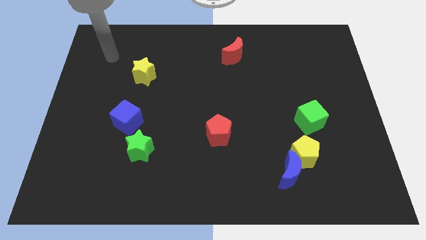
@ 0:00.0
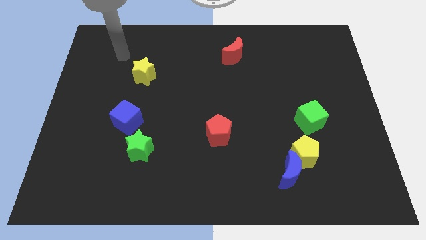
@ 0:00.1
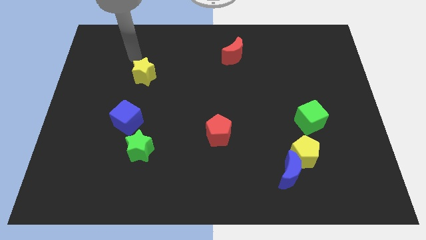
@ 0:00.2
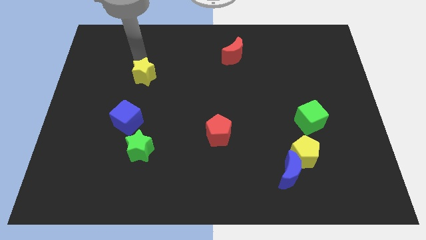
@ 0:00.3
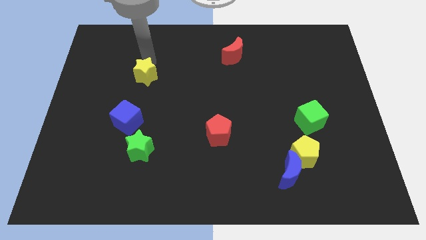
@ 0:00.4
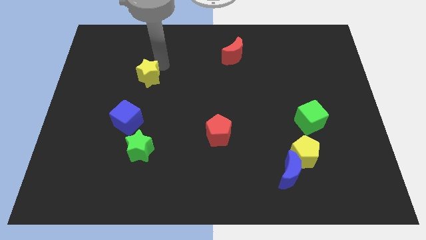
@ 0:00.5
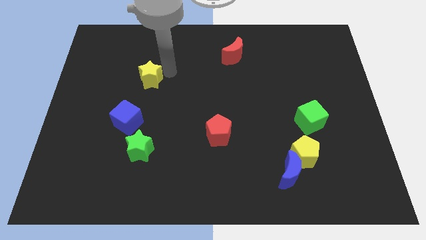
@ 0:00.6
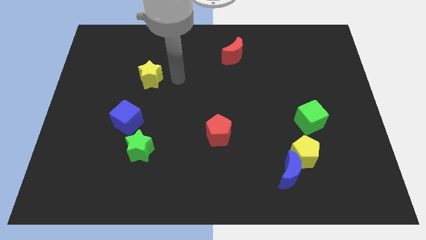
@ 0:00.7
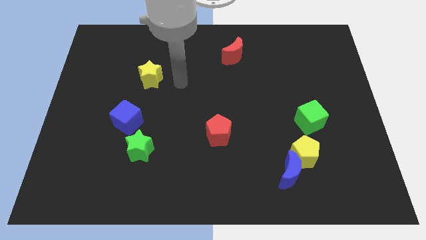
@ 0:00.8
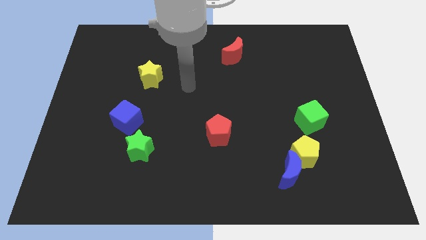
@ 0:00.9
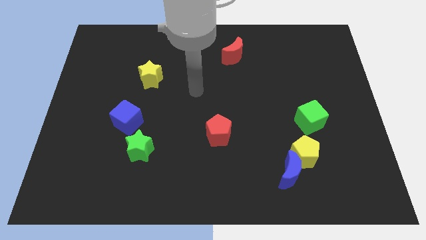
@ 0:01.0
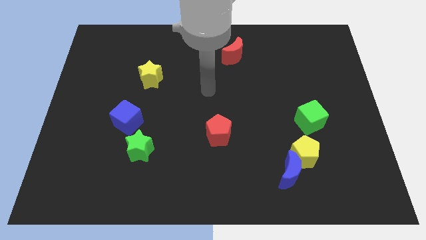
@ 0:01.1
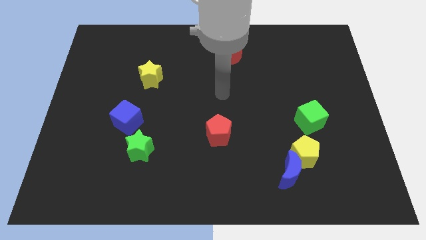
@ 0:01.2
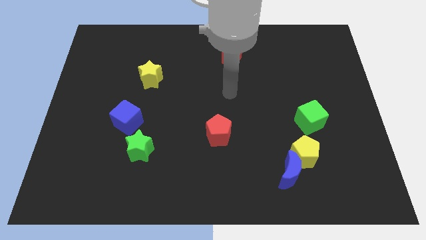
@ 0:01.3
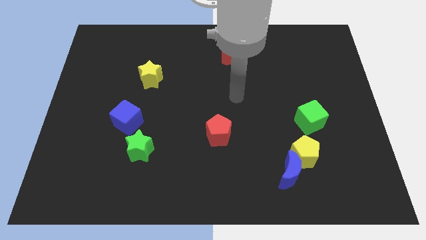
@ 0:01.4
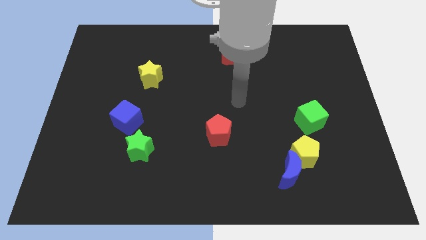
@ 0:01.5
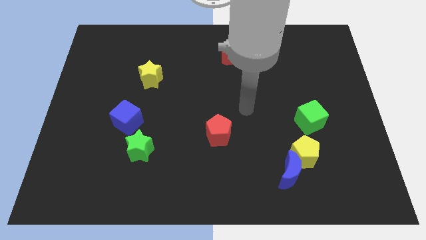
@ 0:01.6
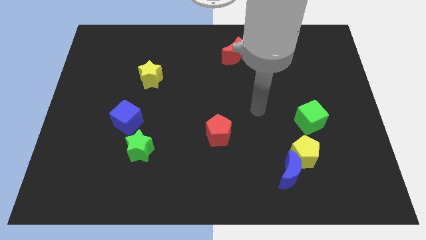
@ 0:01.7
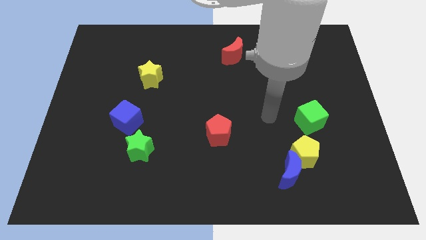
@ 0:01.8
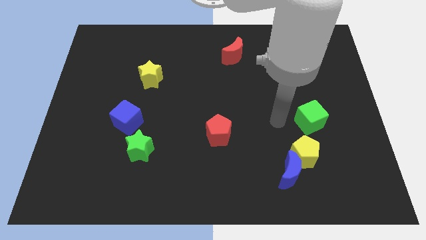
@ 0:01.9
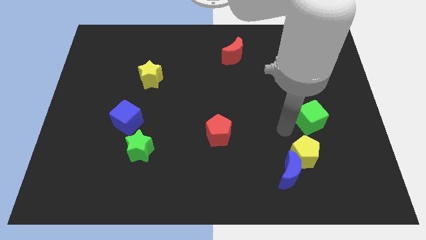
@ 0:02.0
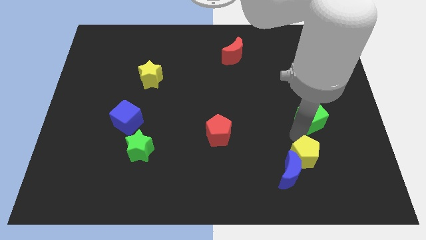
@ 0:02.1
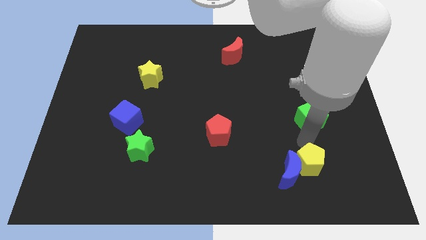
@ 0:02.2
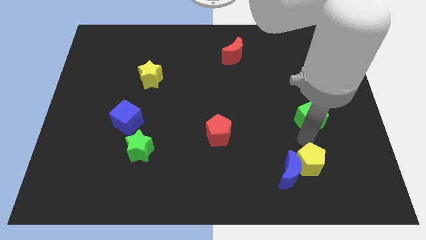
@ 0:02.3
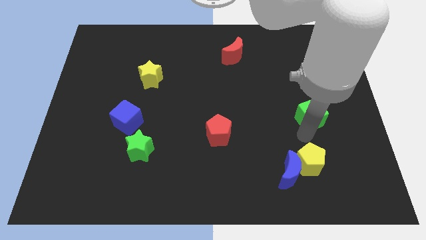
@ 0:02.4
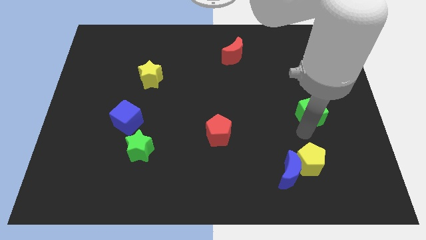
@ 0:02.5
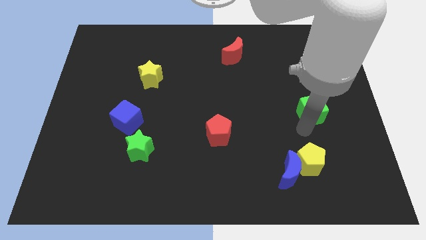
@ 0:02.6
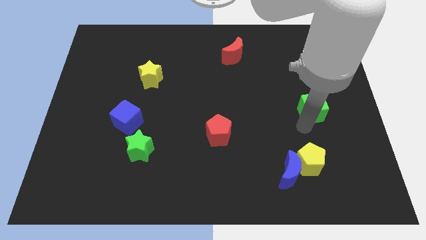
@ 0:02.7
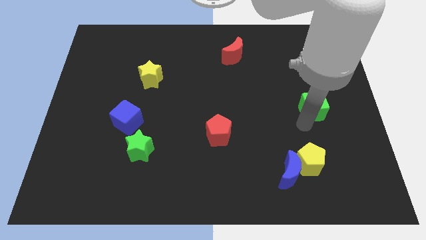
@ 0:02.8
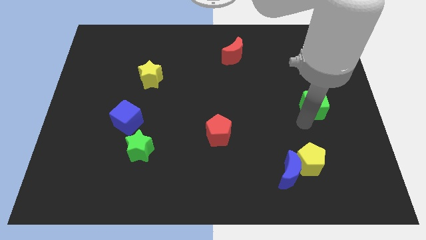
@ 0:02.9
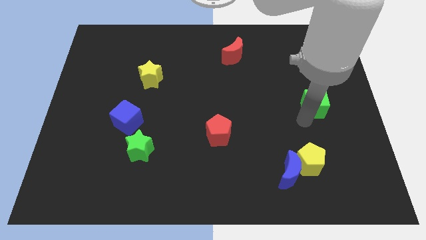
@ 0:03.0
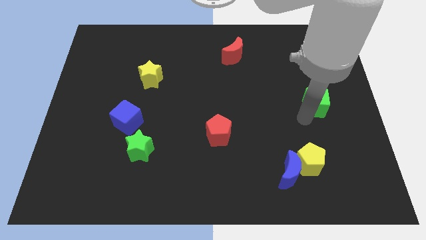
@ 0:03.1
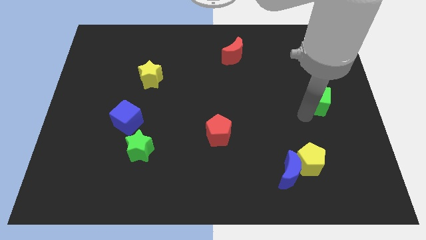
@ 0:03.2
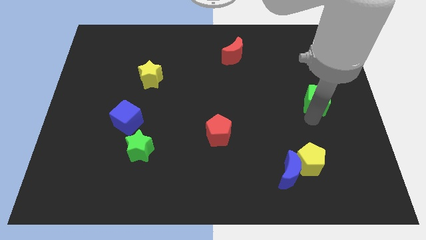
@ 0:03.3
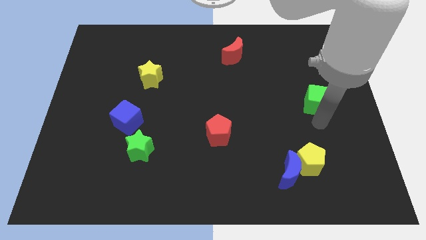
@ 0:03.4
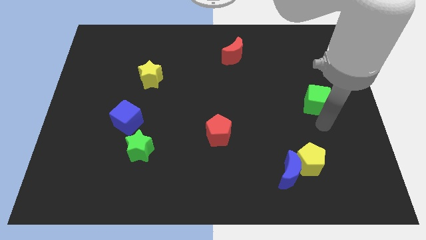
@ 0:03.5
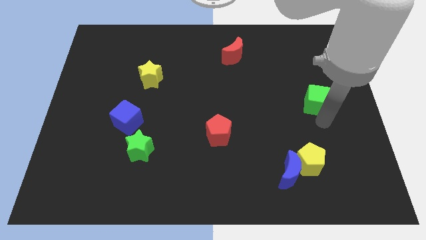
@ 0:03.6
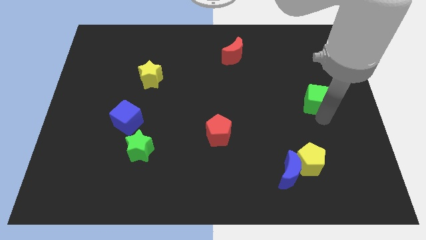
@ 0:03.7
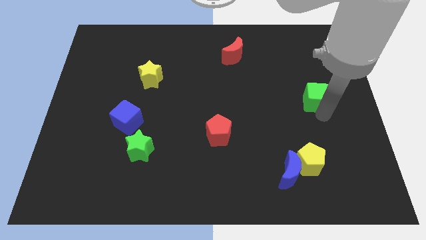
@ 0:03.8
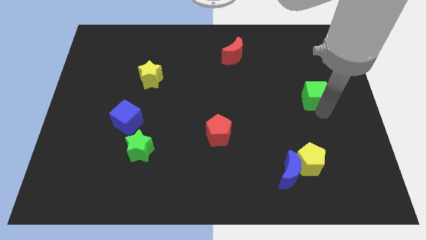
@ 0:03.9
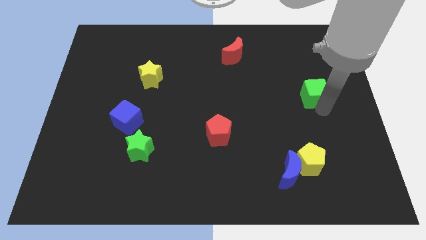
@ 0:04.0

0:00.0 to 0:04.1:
slightly move the green cube upwards

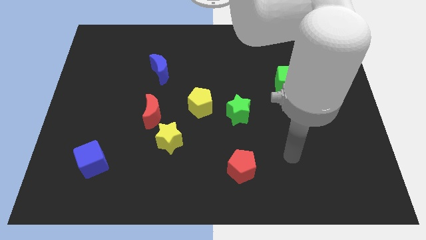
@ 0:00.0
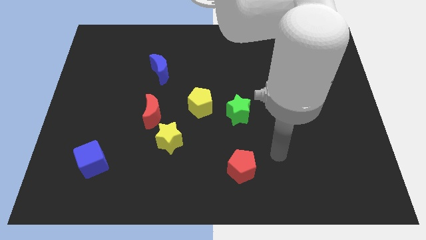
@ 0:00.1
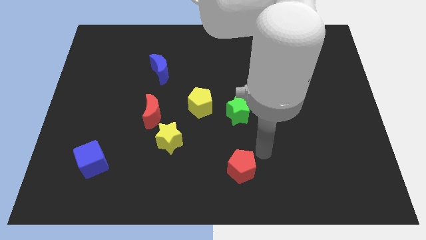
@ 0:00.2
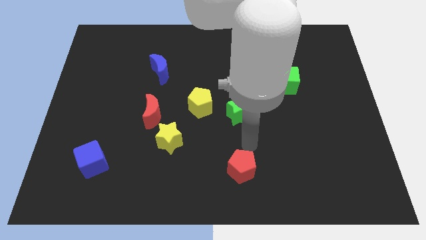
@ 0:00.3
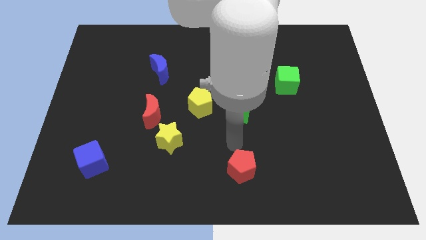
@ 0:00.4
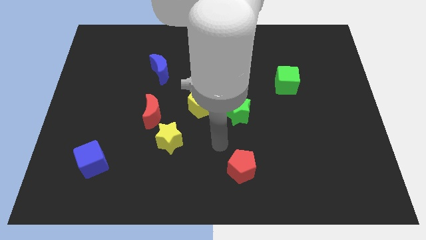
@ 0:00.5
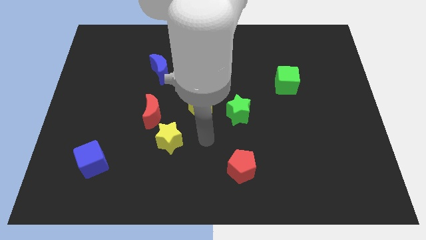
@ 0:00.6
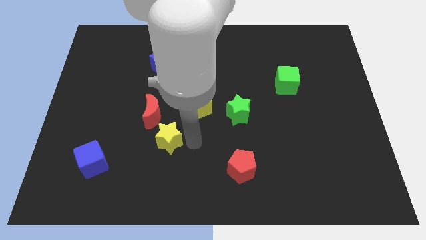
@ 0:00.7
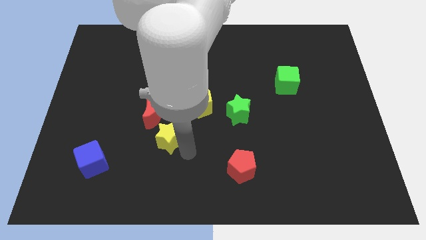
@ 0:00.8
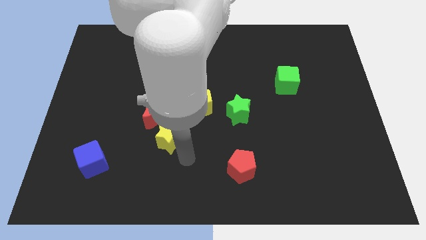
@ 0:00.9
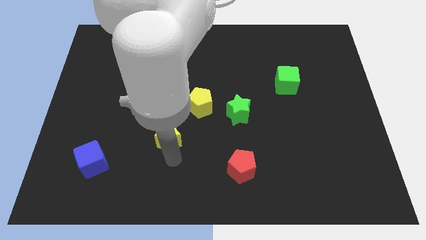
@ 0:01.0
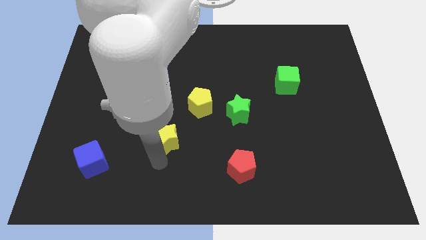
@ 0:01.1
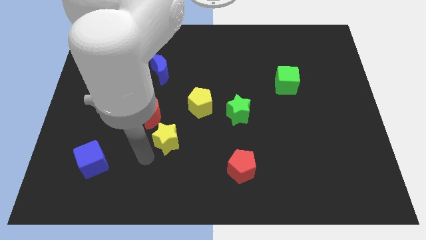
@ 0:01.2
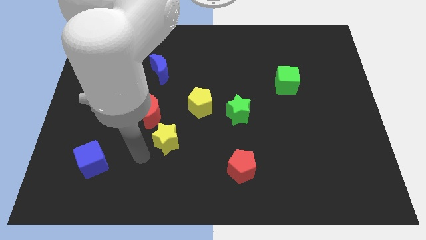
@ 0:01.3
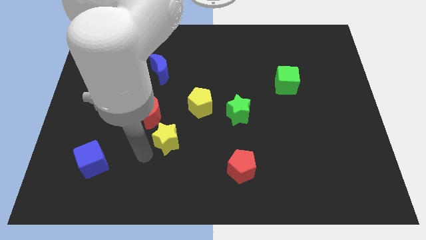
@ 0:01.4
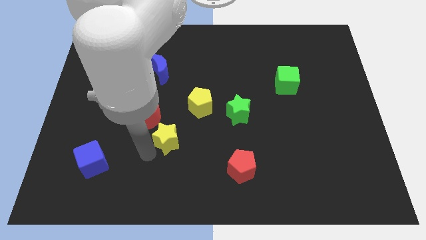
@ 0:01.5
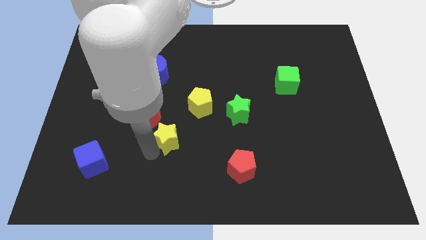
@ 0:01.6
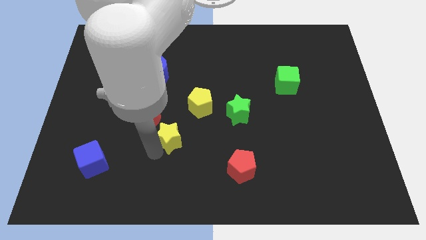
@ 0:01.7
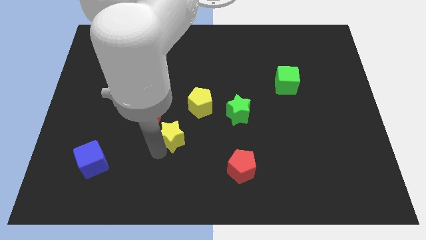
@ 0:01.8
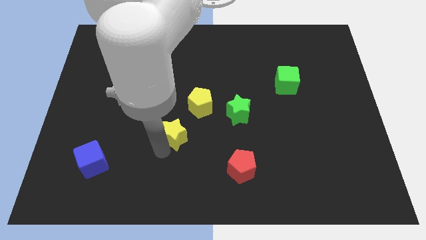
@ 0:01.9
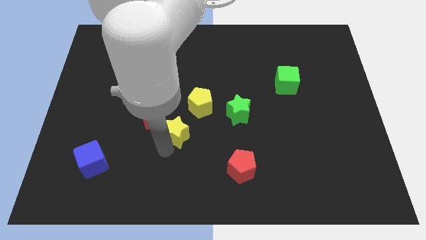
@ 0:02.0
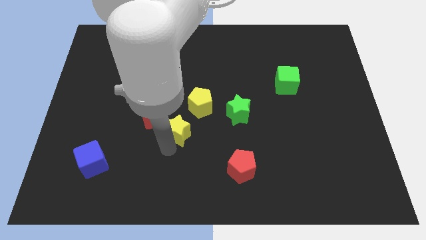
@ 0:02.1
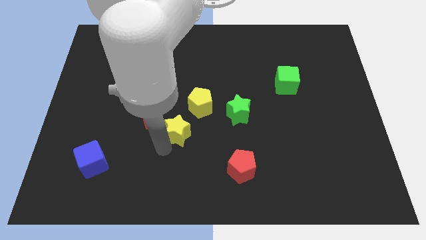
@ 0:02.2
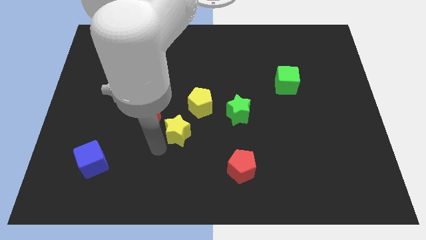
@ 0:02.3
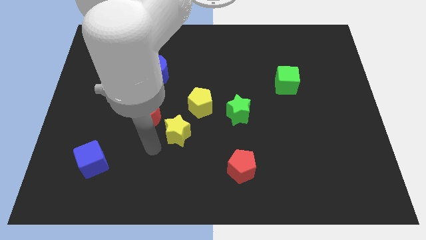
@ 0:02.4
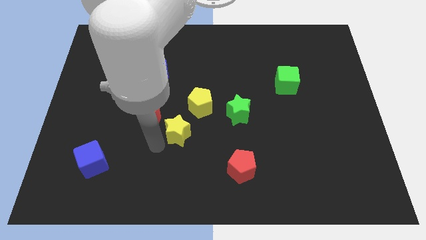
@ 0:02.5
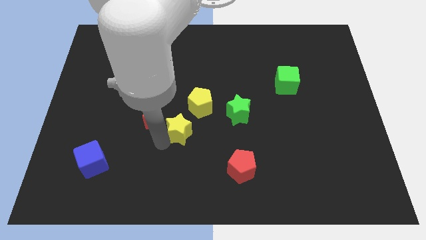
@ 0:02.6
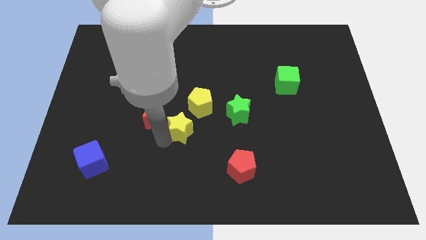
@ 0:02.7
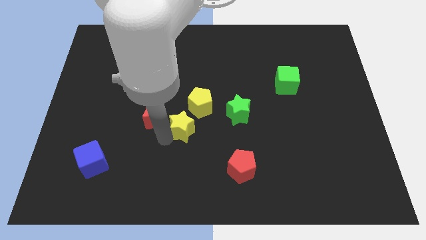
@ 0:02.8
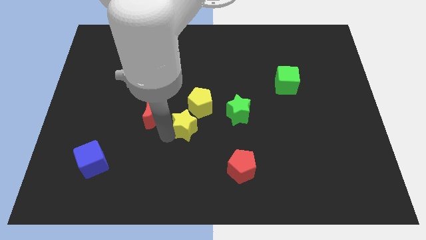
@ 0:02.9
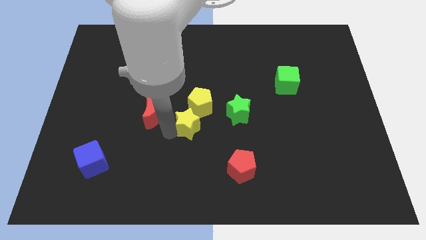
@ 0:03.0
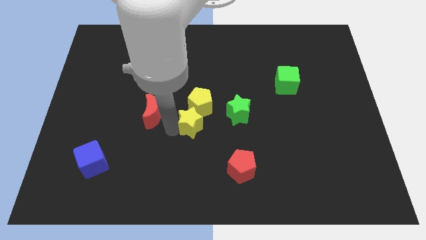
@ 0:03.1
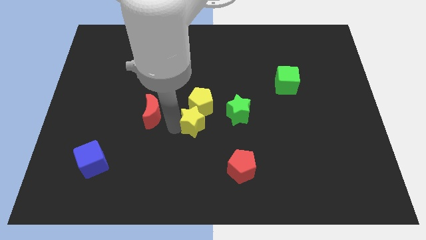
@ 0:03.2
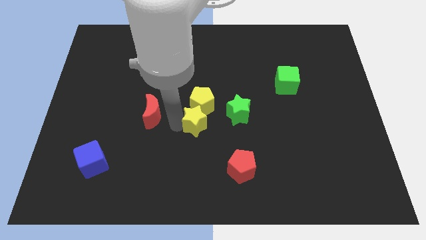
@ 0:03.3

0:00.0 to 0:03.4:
slightly move the yellow star diagonally upwards and right

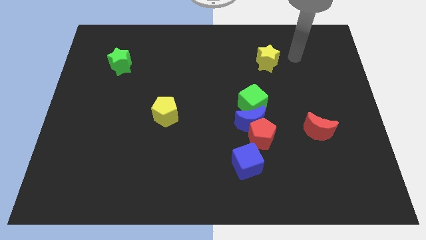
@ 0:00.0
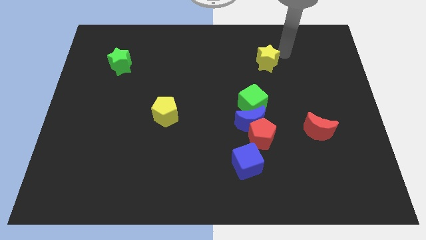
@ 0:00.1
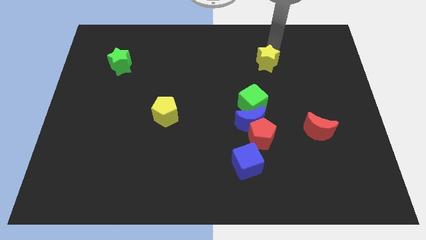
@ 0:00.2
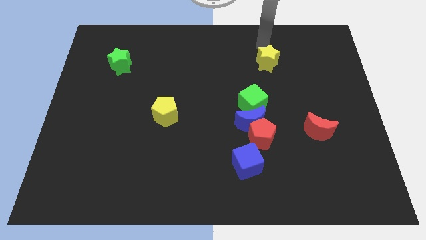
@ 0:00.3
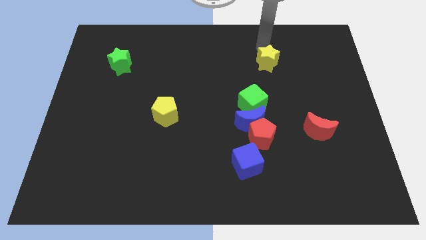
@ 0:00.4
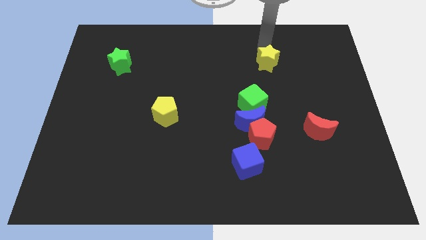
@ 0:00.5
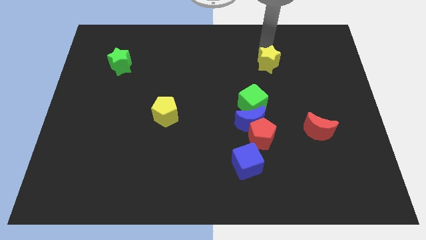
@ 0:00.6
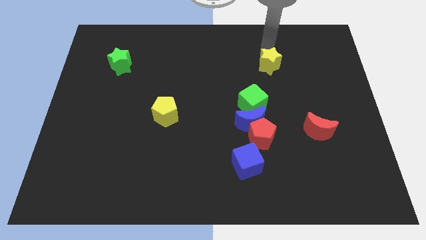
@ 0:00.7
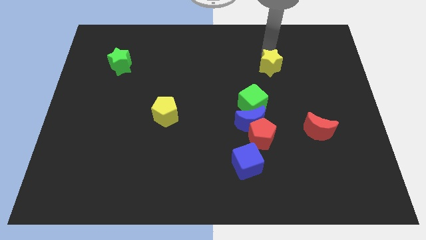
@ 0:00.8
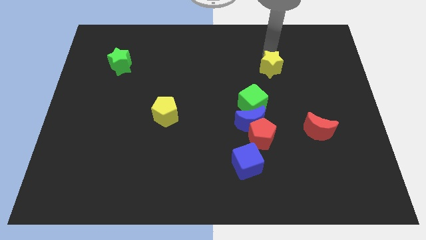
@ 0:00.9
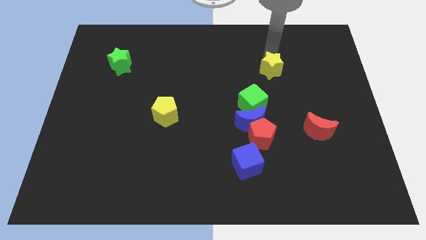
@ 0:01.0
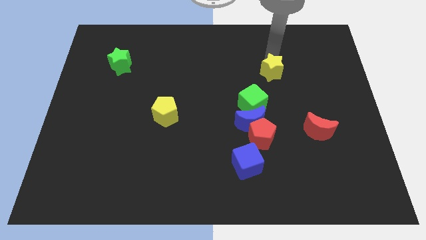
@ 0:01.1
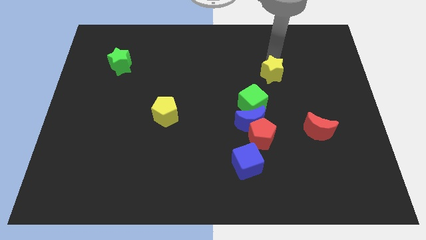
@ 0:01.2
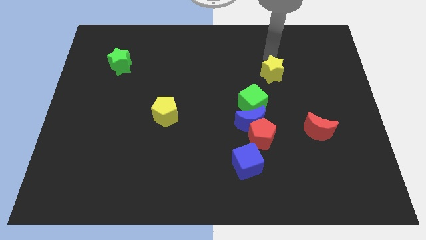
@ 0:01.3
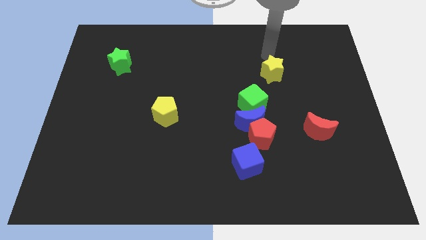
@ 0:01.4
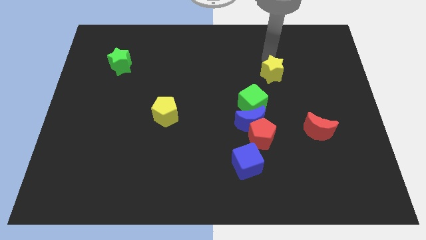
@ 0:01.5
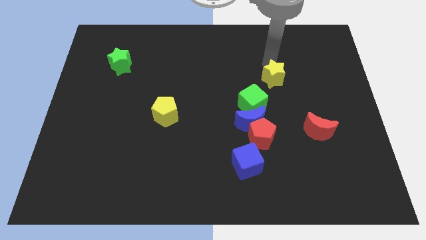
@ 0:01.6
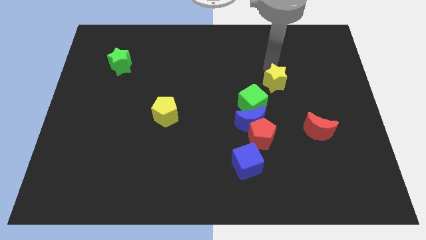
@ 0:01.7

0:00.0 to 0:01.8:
slightly push the yellow star down
